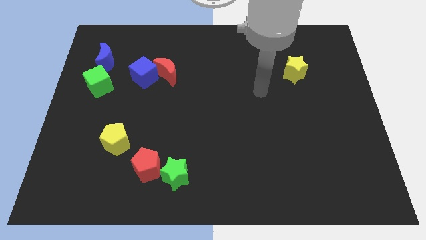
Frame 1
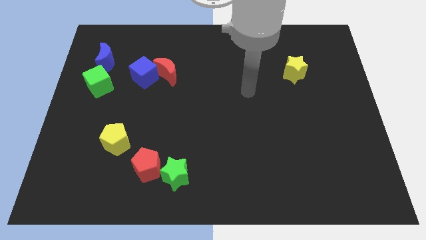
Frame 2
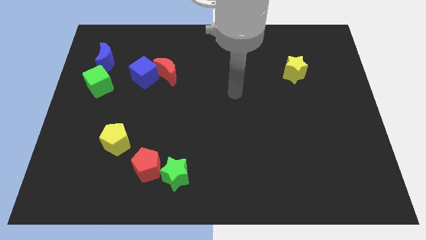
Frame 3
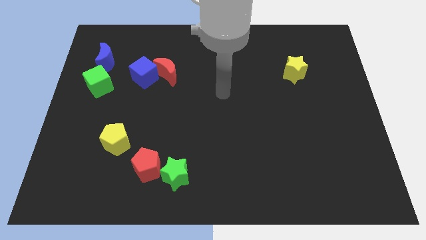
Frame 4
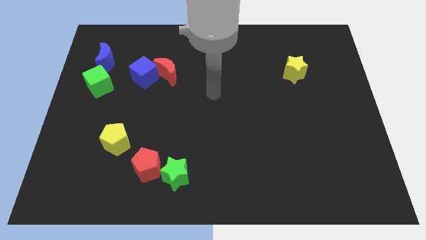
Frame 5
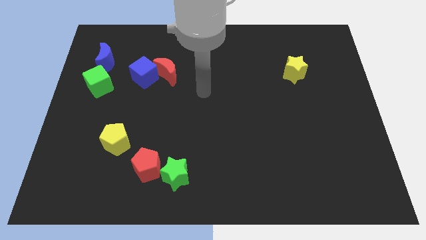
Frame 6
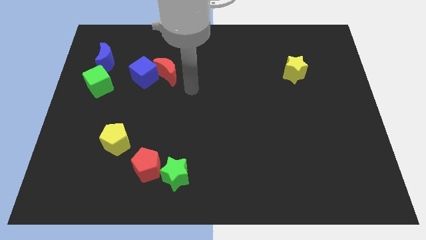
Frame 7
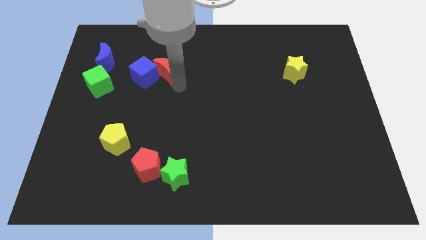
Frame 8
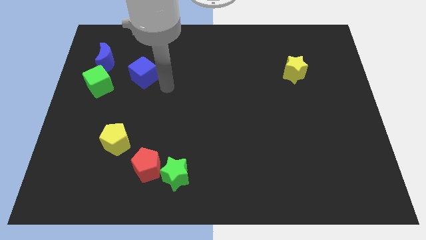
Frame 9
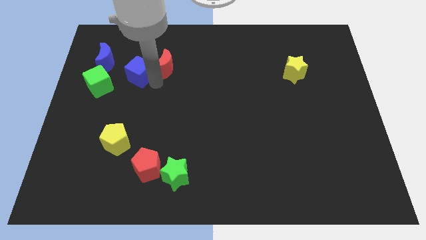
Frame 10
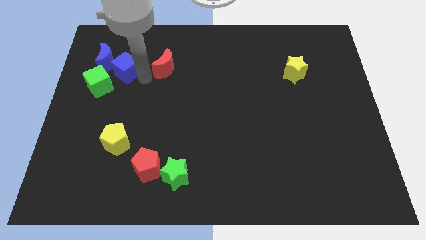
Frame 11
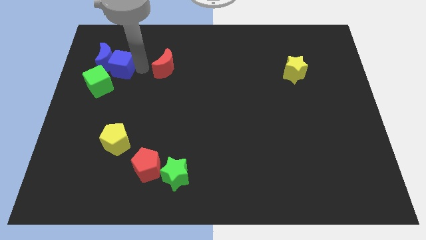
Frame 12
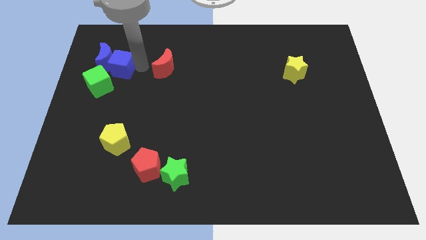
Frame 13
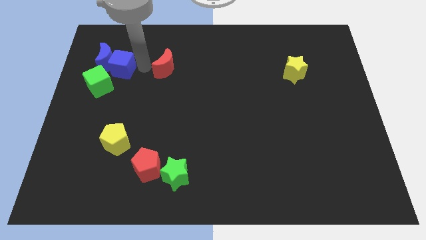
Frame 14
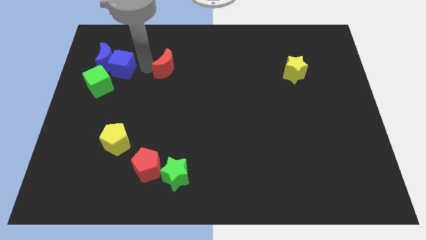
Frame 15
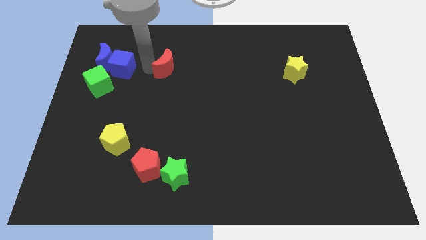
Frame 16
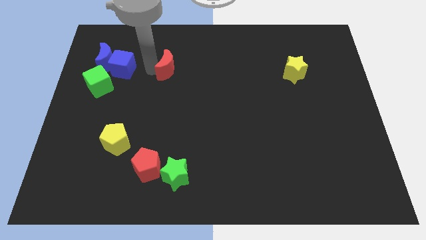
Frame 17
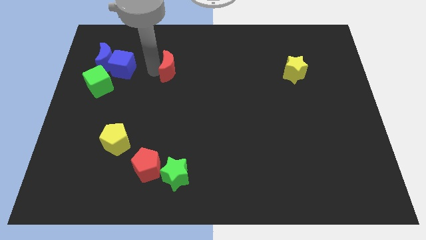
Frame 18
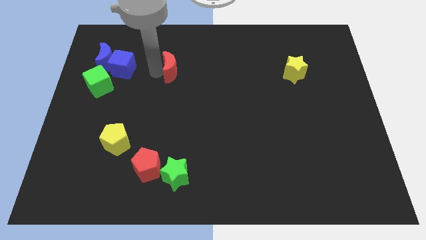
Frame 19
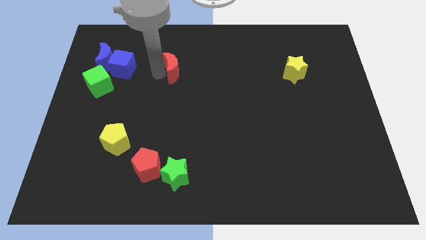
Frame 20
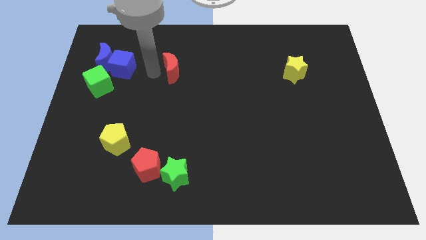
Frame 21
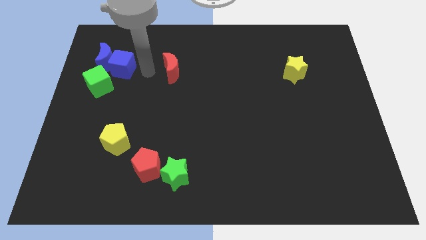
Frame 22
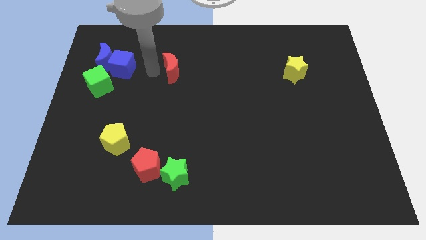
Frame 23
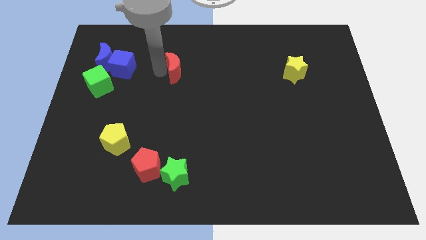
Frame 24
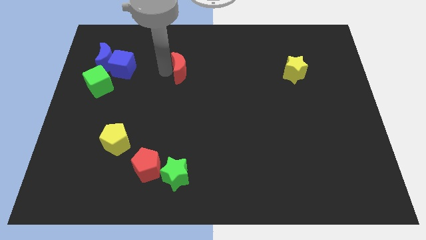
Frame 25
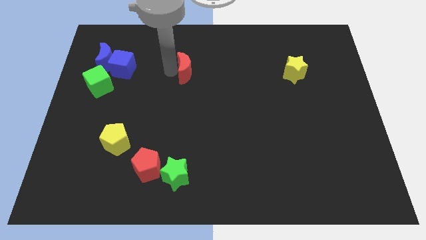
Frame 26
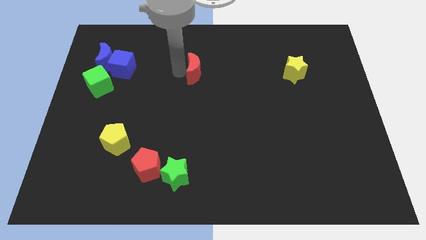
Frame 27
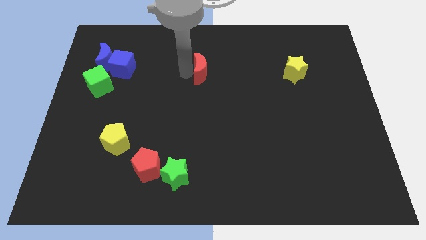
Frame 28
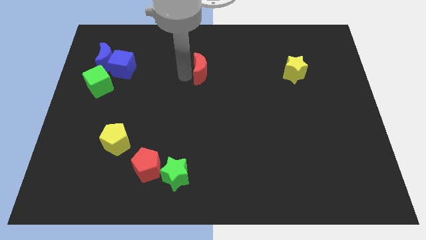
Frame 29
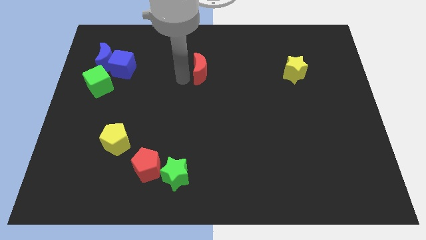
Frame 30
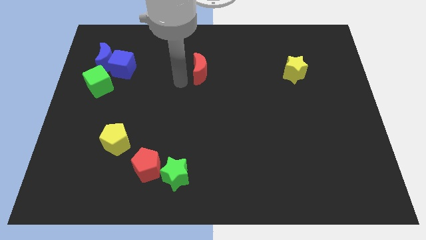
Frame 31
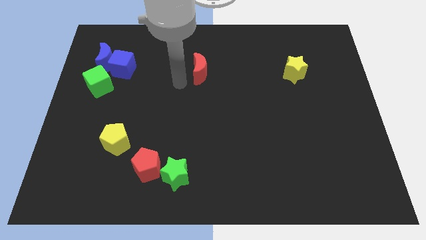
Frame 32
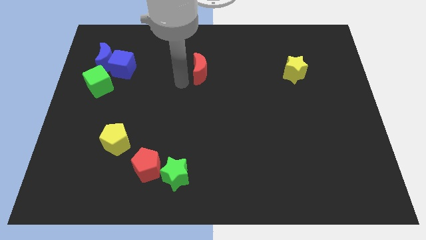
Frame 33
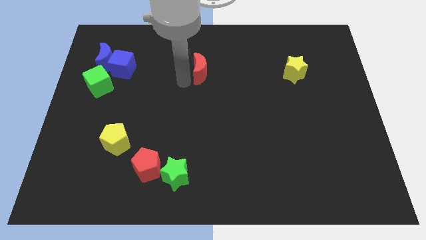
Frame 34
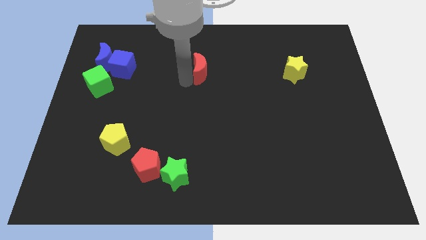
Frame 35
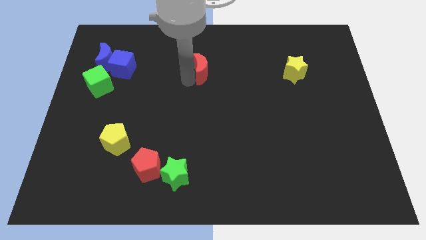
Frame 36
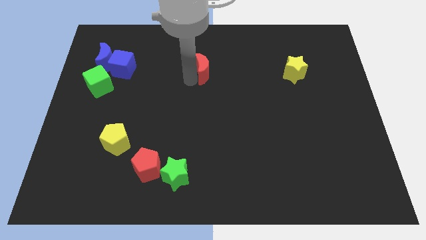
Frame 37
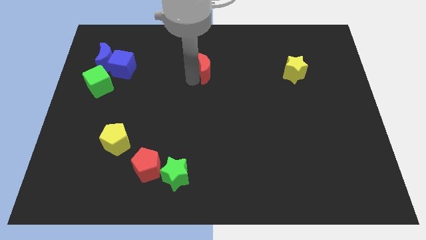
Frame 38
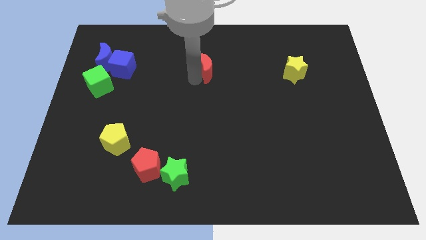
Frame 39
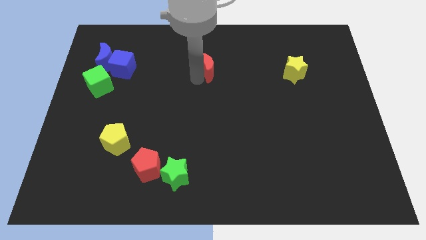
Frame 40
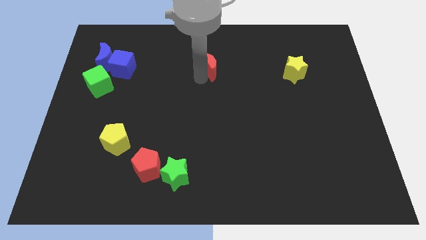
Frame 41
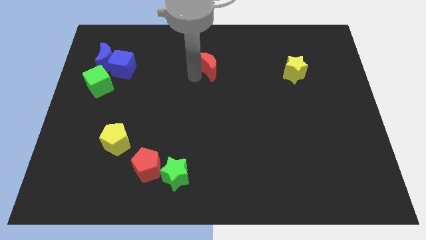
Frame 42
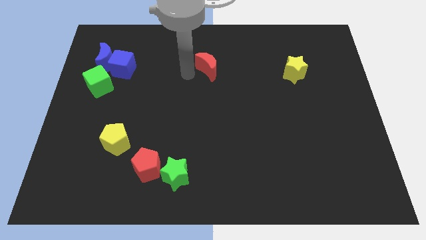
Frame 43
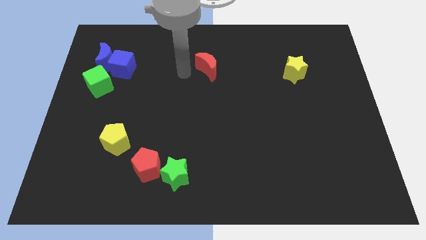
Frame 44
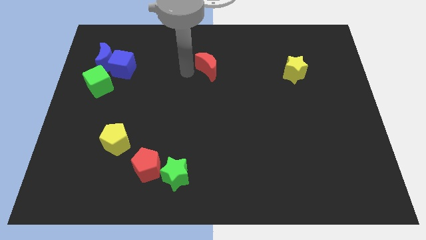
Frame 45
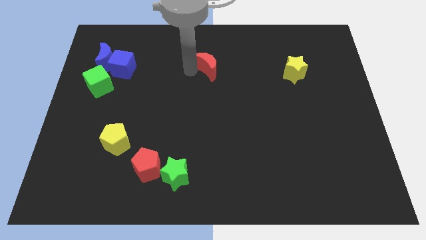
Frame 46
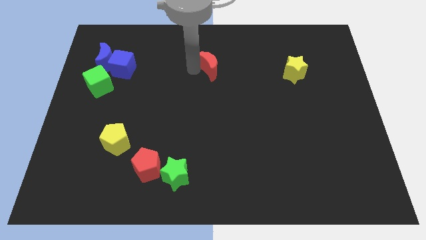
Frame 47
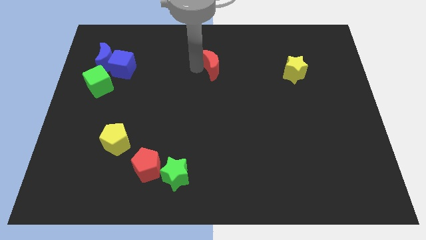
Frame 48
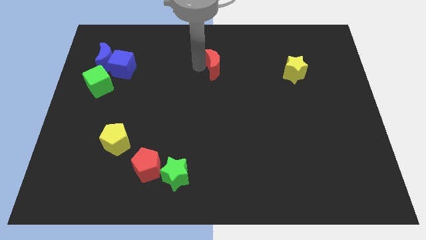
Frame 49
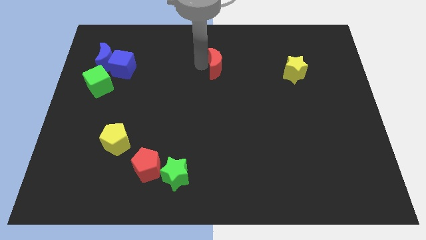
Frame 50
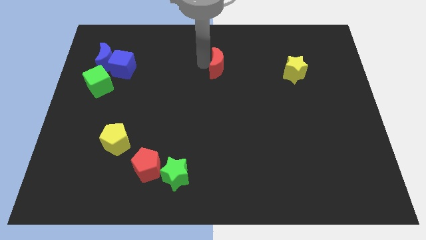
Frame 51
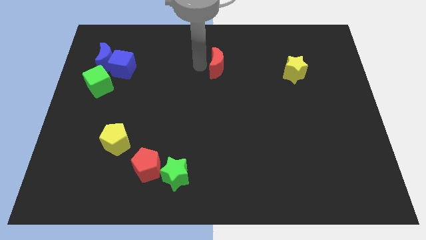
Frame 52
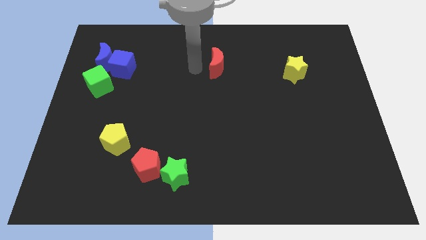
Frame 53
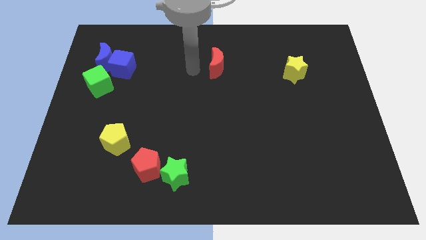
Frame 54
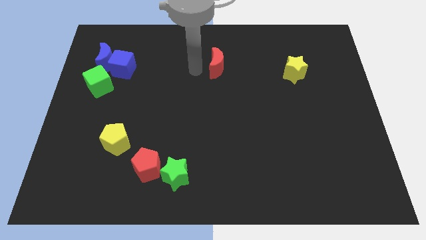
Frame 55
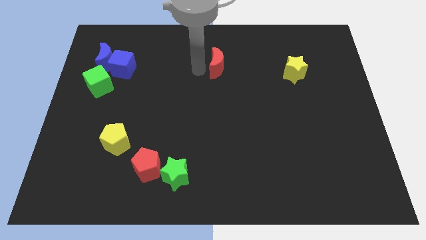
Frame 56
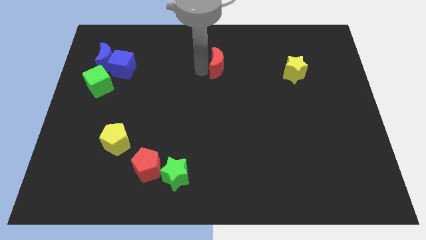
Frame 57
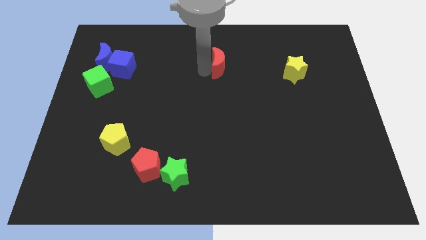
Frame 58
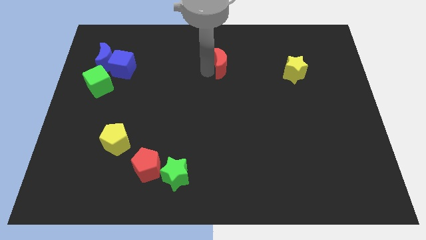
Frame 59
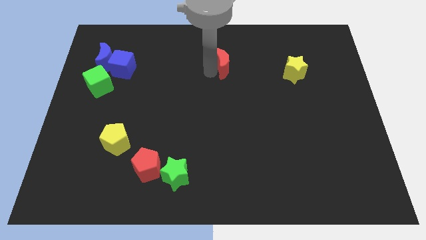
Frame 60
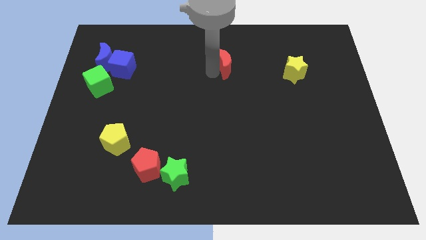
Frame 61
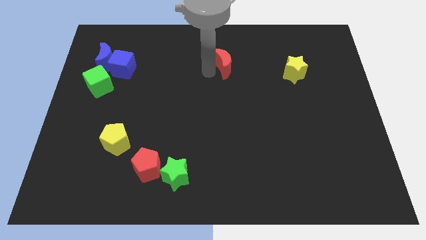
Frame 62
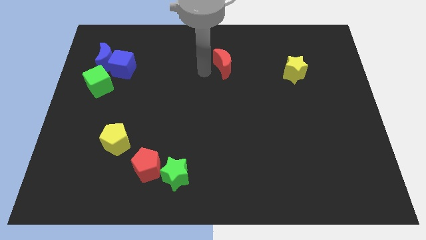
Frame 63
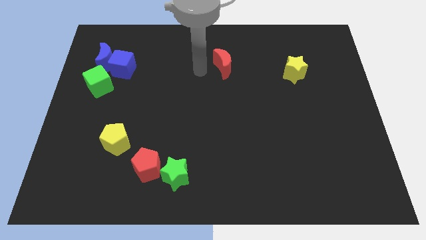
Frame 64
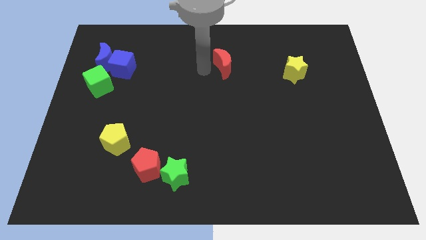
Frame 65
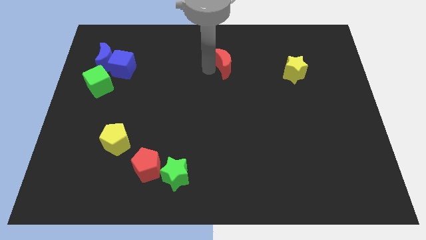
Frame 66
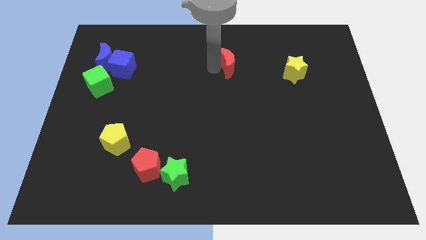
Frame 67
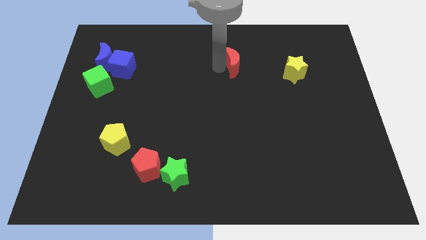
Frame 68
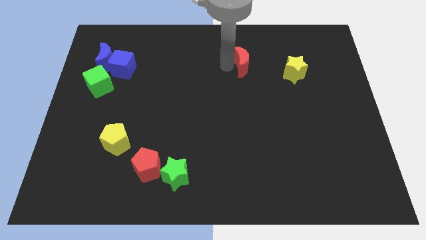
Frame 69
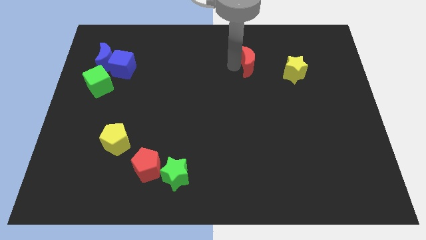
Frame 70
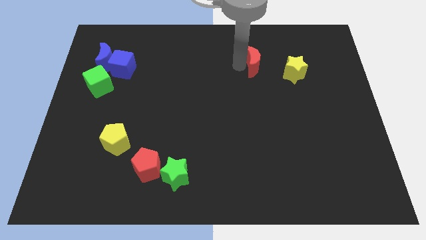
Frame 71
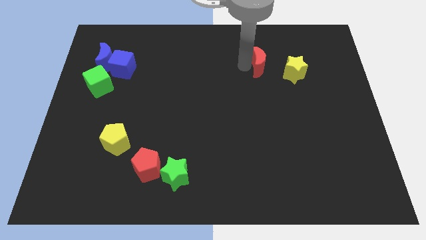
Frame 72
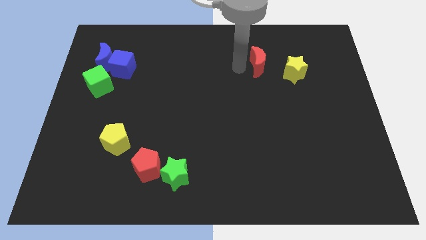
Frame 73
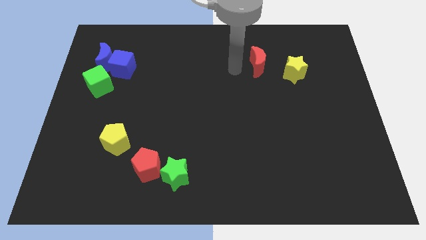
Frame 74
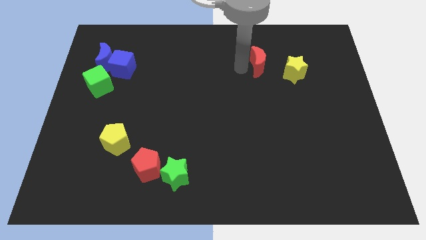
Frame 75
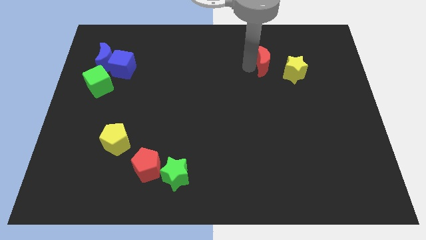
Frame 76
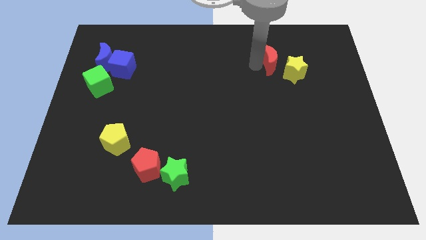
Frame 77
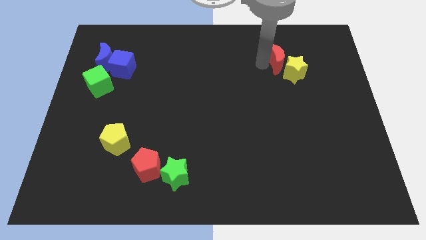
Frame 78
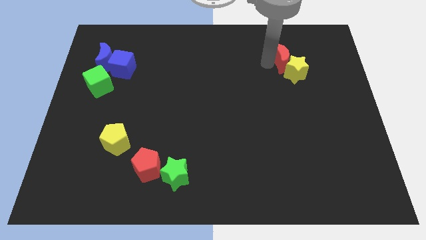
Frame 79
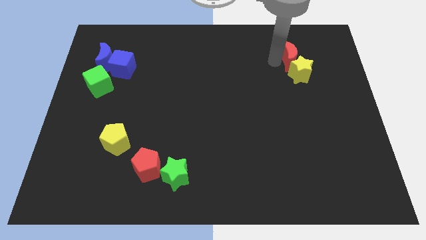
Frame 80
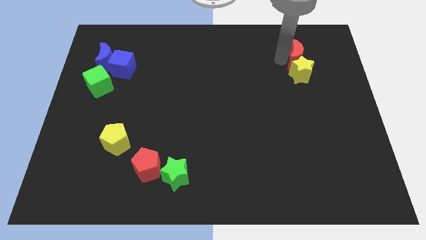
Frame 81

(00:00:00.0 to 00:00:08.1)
slide the red moon diagonally up and to the right of the yellow star
